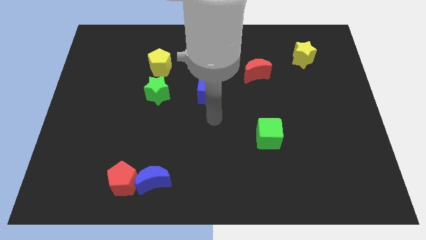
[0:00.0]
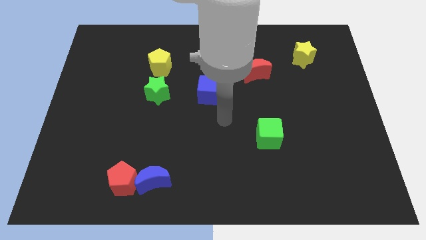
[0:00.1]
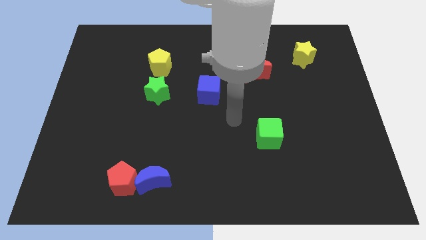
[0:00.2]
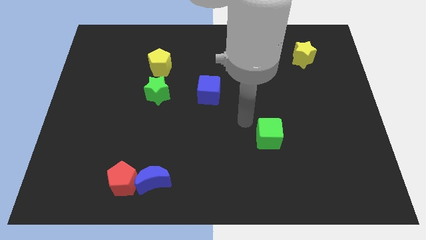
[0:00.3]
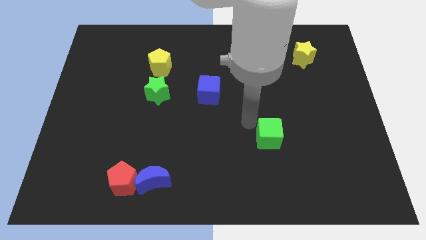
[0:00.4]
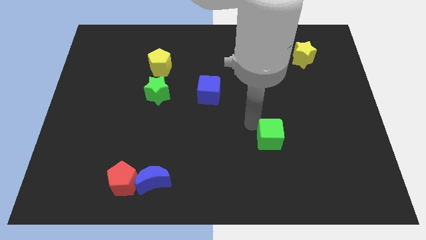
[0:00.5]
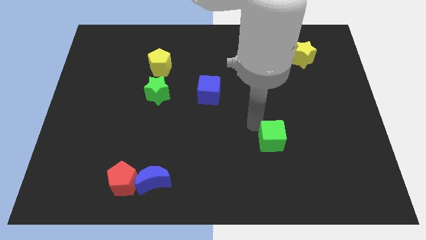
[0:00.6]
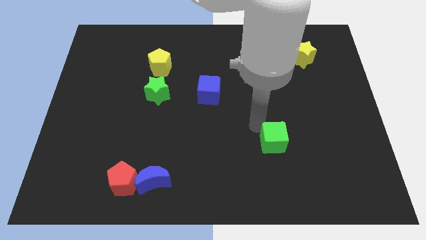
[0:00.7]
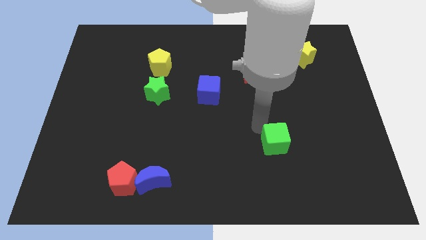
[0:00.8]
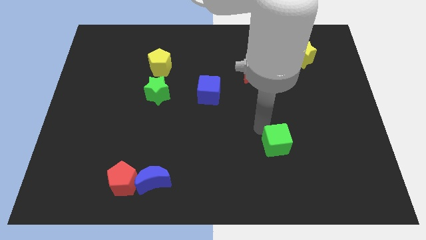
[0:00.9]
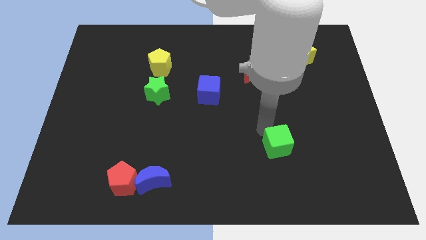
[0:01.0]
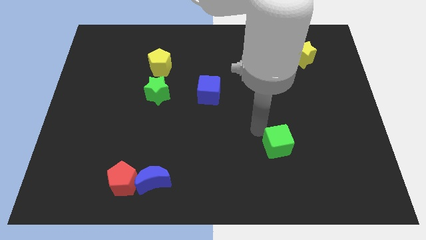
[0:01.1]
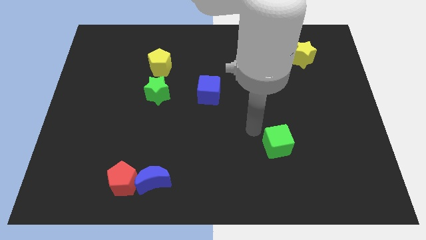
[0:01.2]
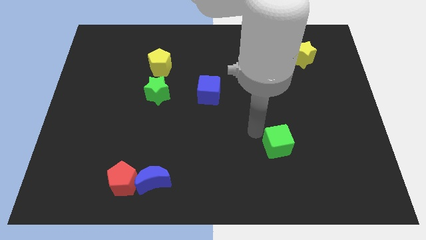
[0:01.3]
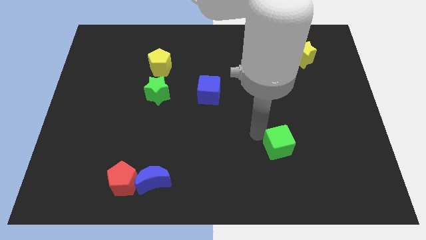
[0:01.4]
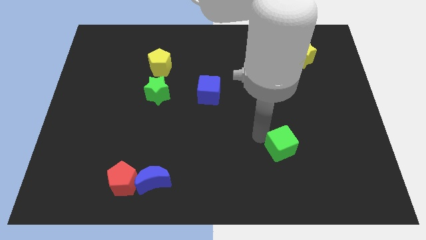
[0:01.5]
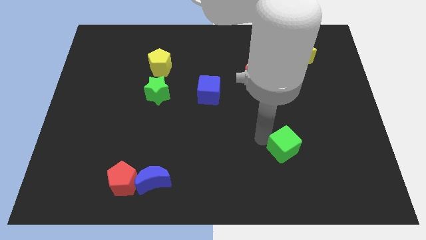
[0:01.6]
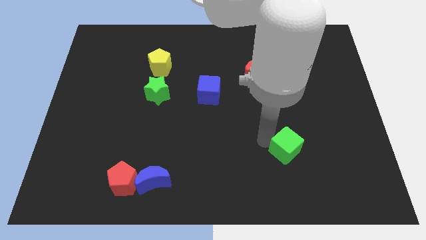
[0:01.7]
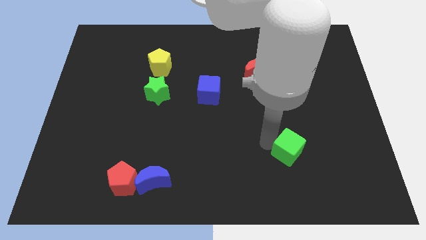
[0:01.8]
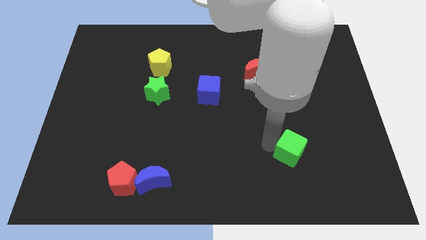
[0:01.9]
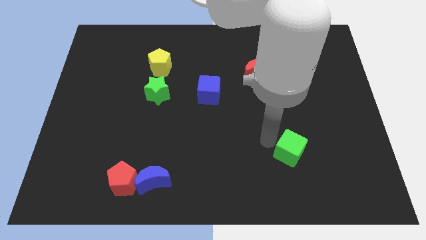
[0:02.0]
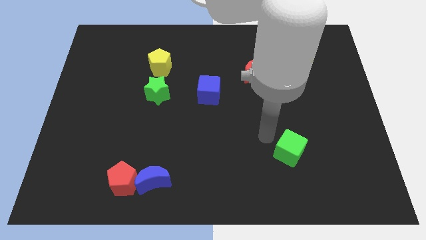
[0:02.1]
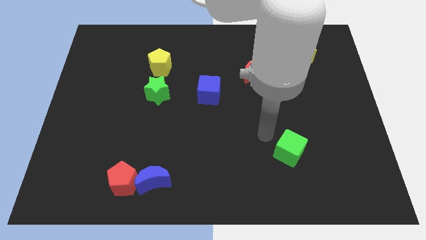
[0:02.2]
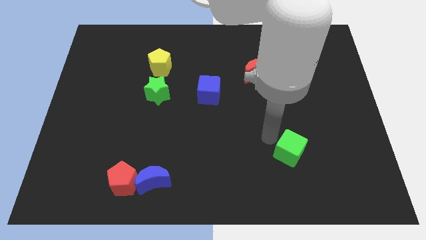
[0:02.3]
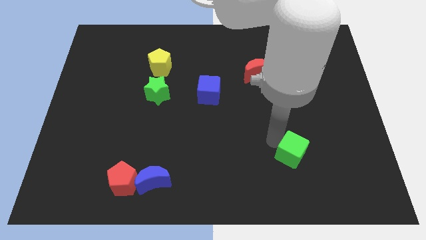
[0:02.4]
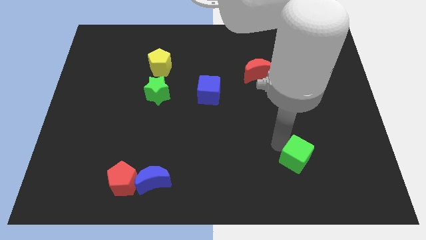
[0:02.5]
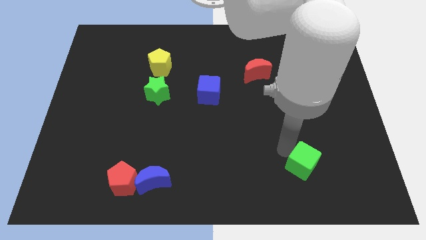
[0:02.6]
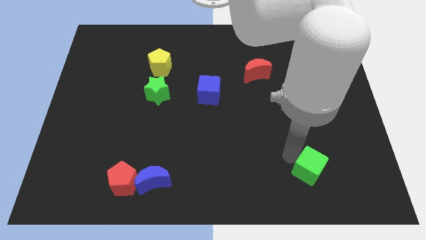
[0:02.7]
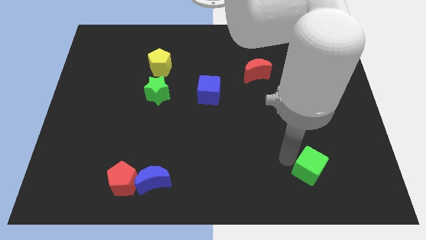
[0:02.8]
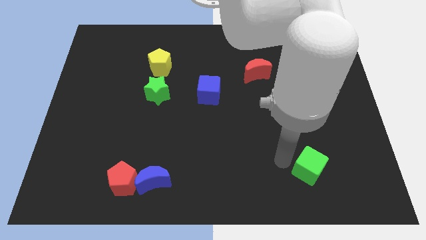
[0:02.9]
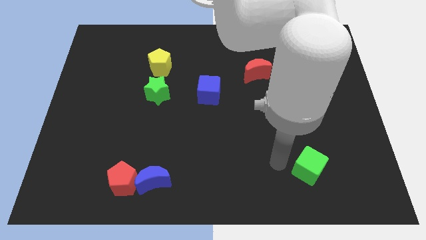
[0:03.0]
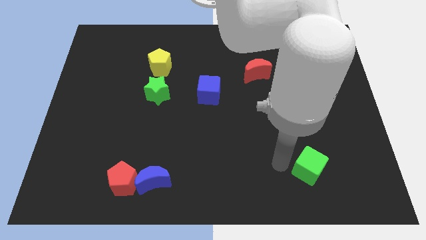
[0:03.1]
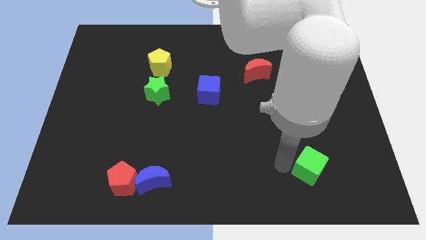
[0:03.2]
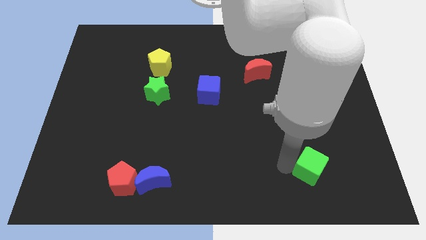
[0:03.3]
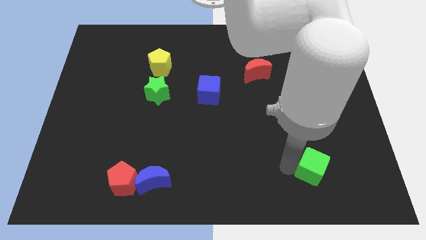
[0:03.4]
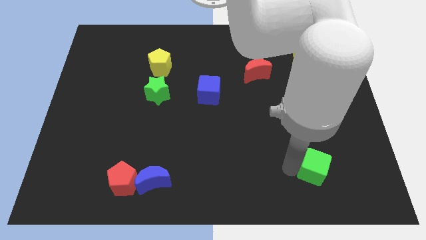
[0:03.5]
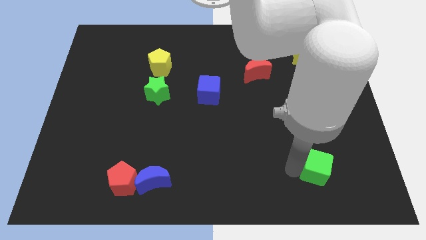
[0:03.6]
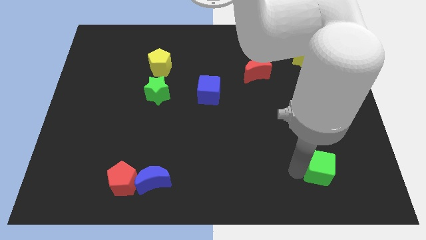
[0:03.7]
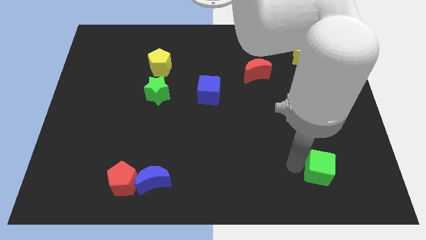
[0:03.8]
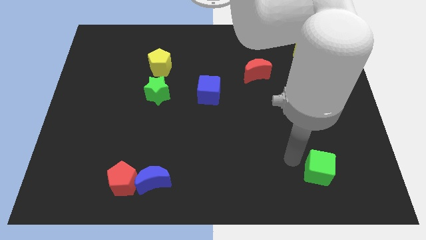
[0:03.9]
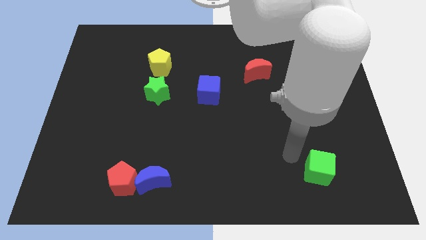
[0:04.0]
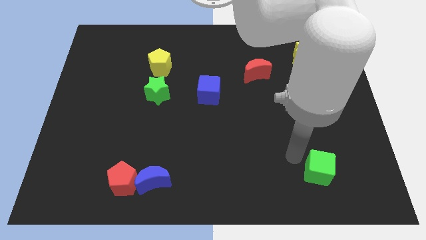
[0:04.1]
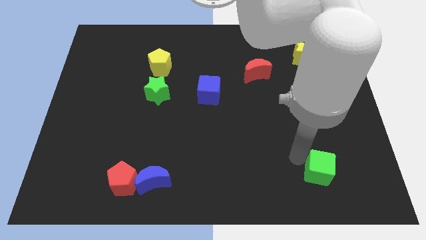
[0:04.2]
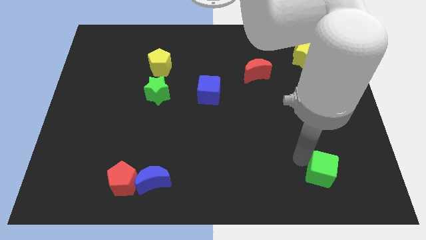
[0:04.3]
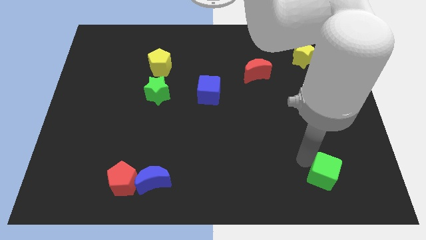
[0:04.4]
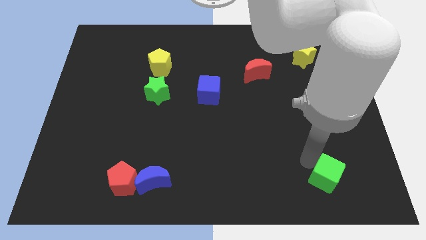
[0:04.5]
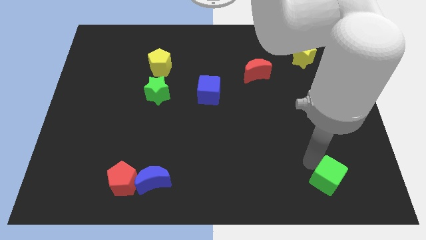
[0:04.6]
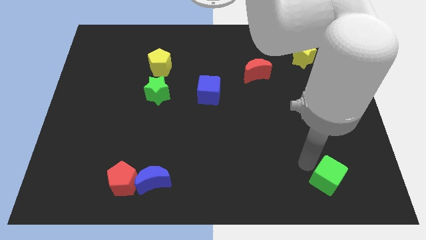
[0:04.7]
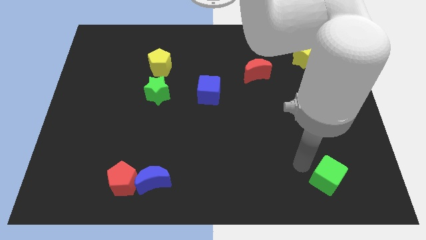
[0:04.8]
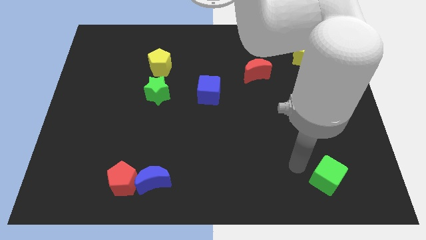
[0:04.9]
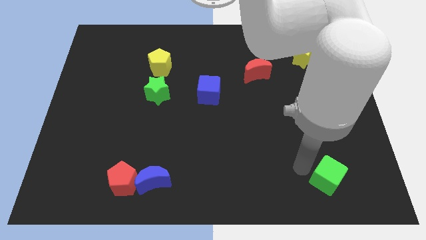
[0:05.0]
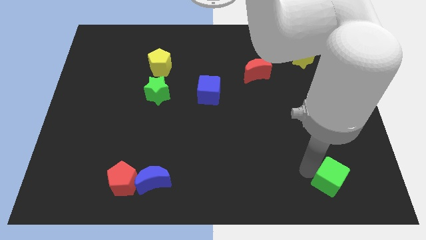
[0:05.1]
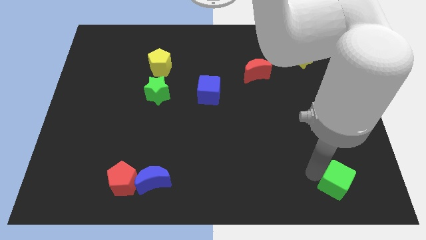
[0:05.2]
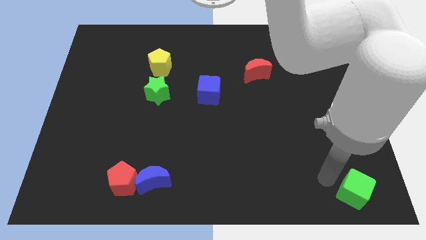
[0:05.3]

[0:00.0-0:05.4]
slide the green cube to the bottom right

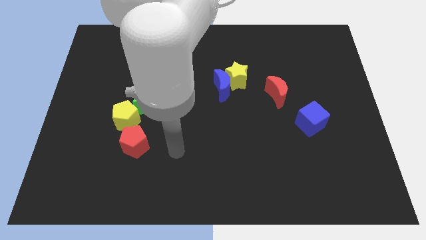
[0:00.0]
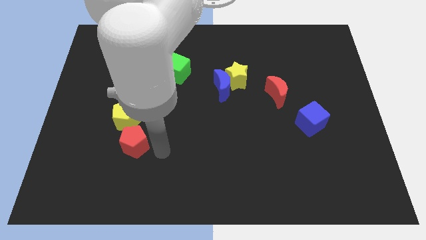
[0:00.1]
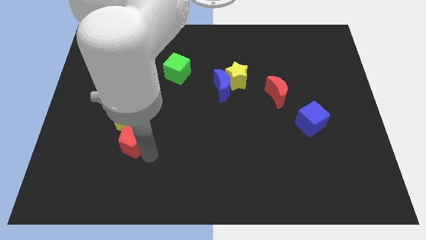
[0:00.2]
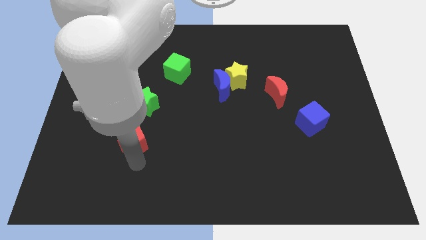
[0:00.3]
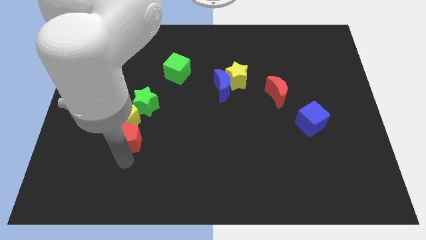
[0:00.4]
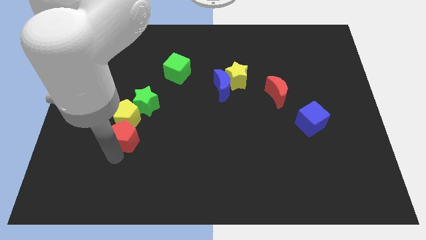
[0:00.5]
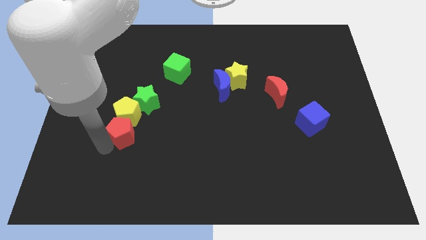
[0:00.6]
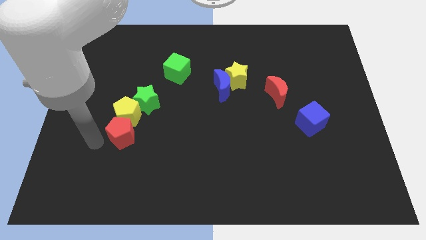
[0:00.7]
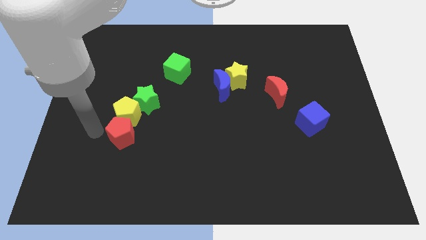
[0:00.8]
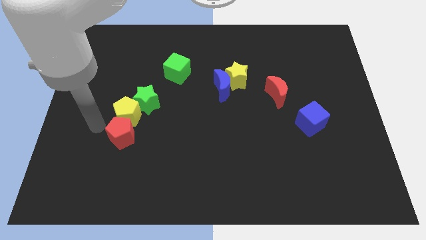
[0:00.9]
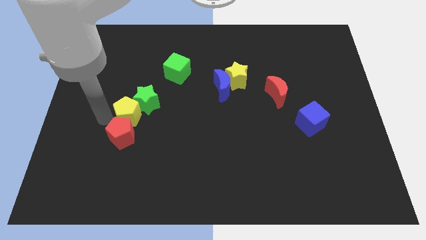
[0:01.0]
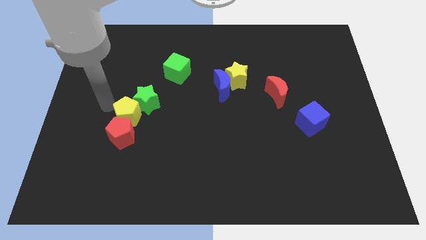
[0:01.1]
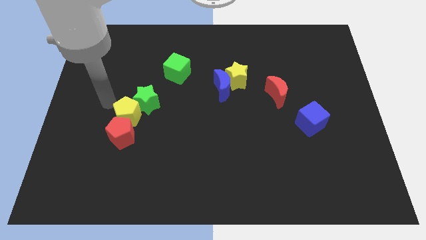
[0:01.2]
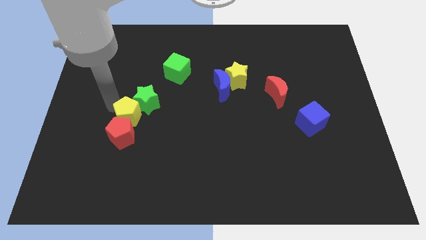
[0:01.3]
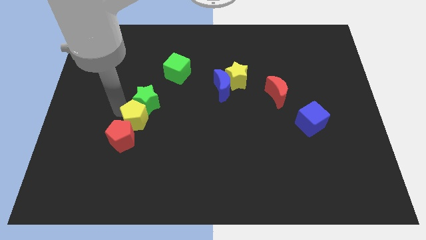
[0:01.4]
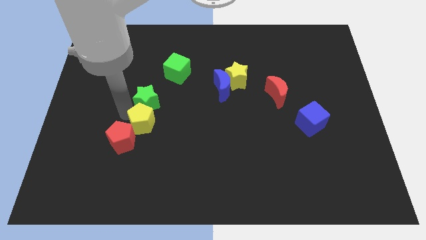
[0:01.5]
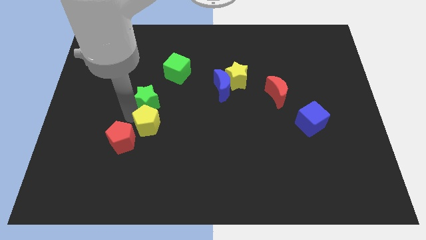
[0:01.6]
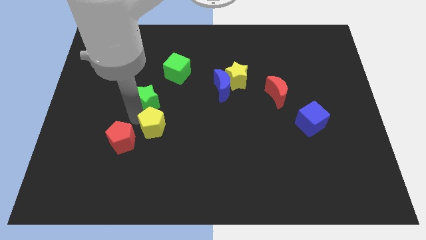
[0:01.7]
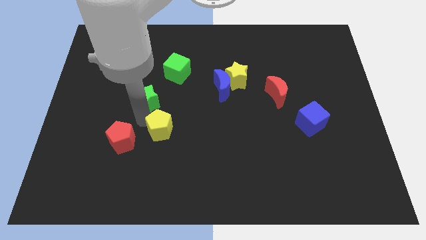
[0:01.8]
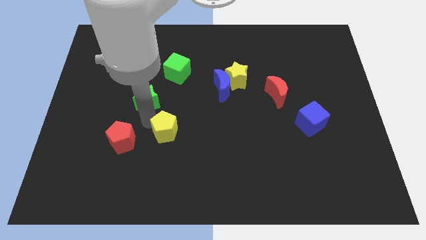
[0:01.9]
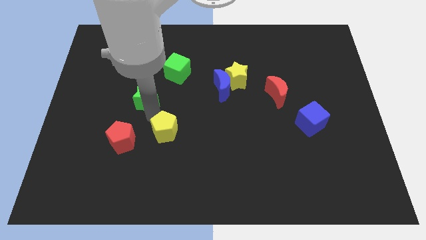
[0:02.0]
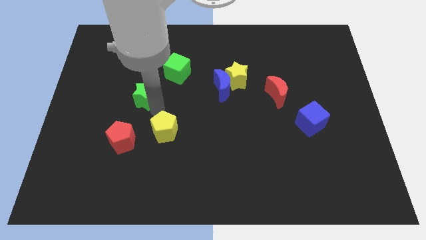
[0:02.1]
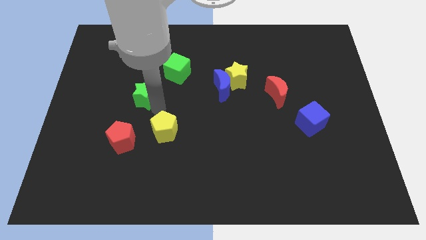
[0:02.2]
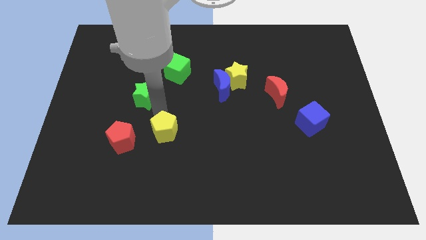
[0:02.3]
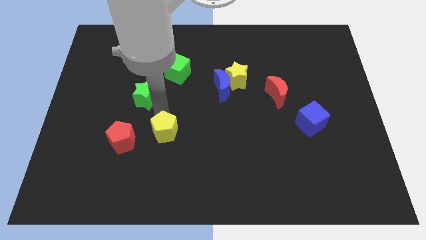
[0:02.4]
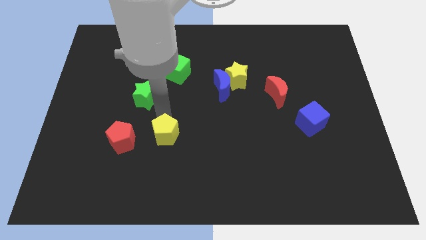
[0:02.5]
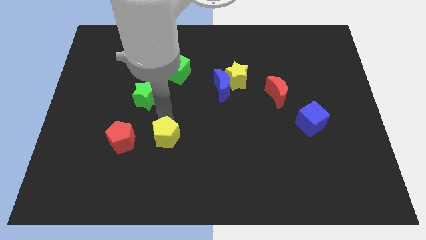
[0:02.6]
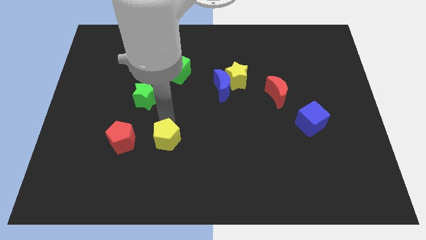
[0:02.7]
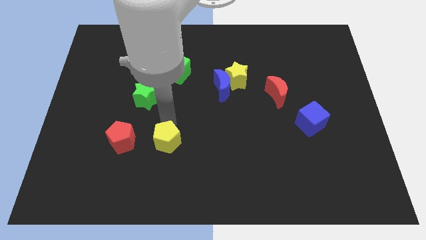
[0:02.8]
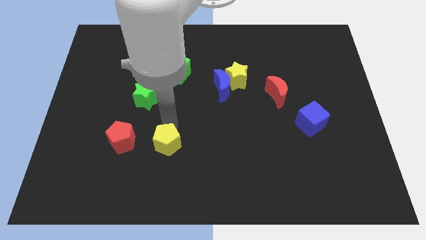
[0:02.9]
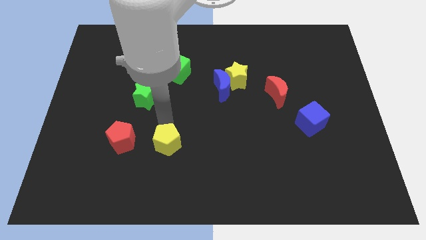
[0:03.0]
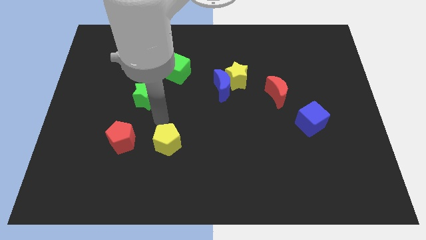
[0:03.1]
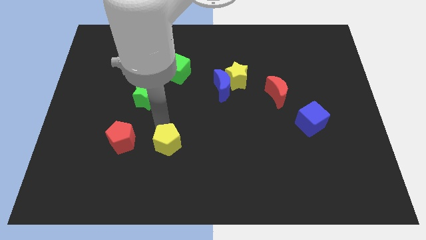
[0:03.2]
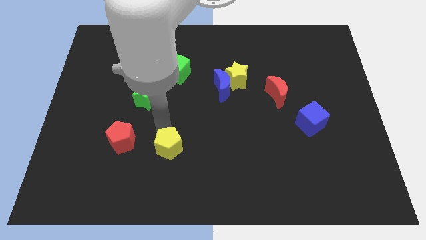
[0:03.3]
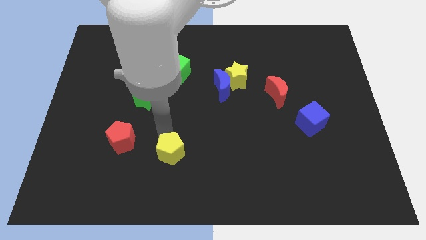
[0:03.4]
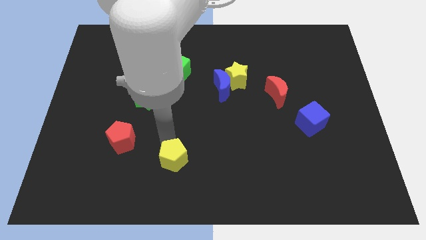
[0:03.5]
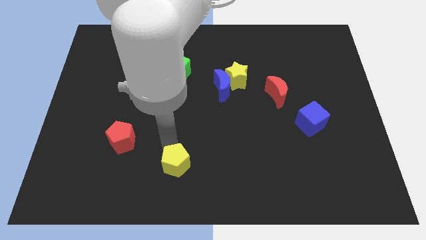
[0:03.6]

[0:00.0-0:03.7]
move the yellow pentagon to the bottom side
